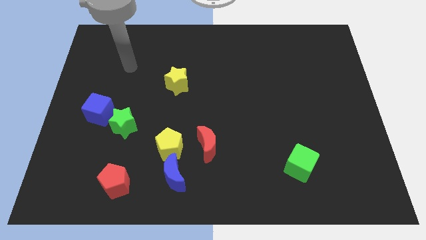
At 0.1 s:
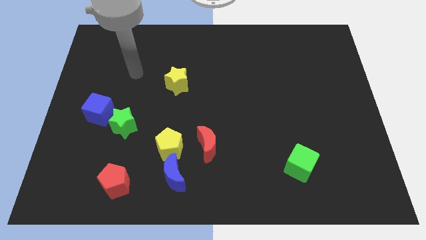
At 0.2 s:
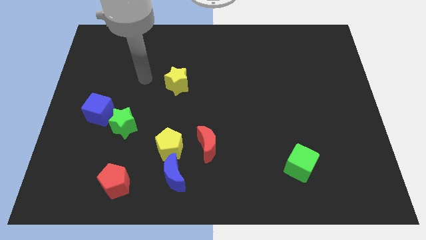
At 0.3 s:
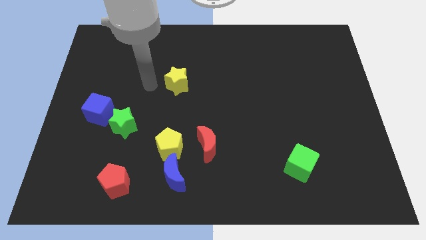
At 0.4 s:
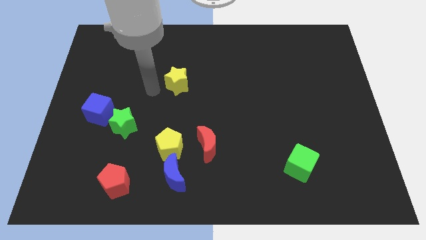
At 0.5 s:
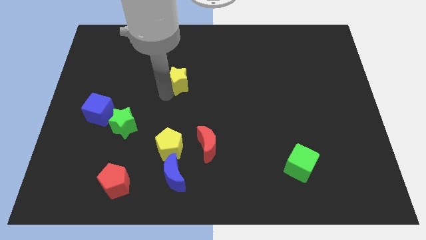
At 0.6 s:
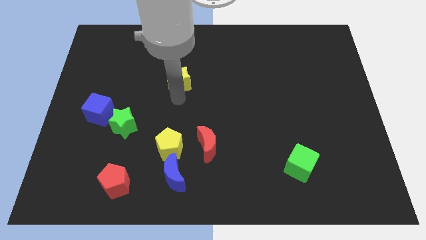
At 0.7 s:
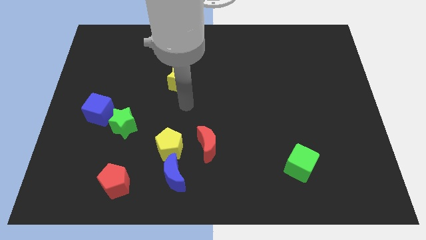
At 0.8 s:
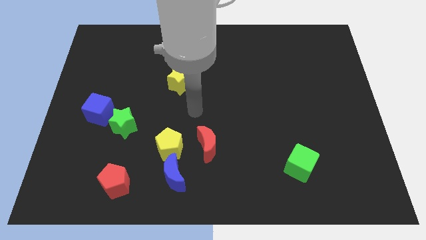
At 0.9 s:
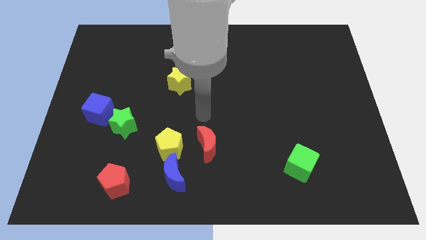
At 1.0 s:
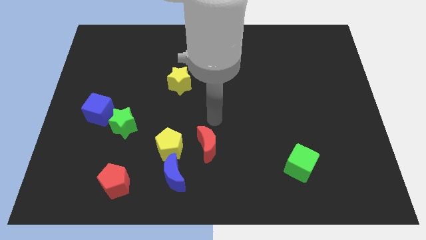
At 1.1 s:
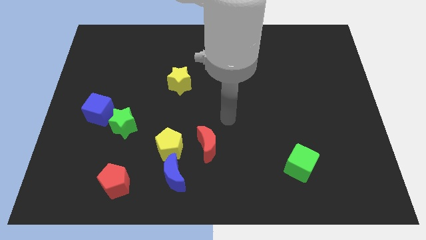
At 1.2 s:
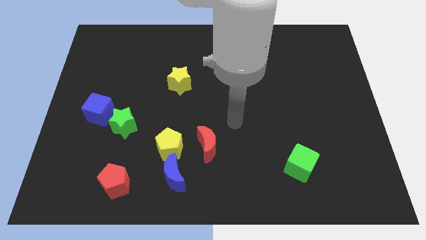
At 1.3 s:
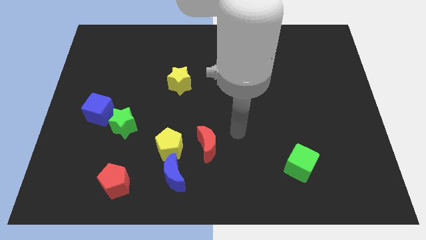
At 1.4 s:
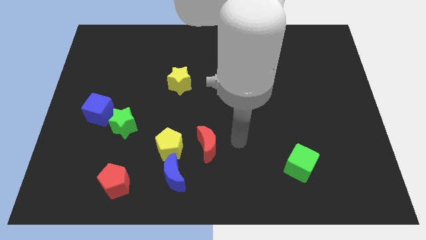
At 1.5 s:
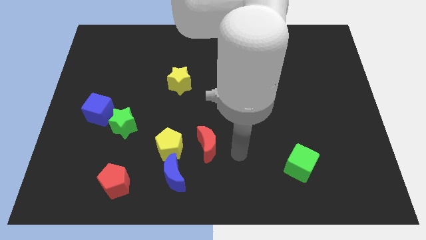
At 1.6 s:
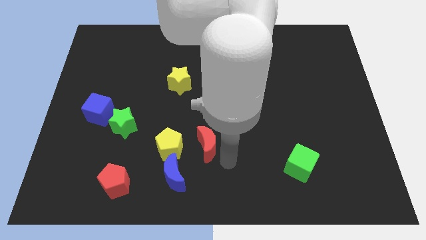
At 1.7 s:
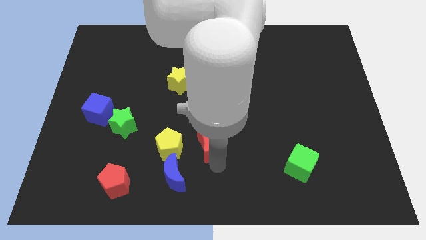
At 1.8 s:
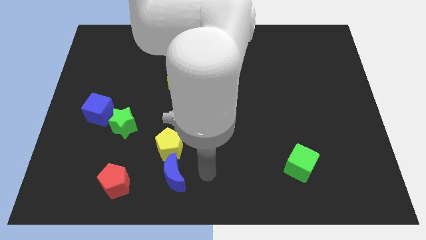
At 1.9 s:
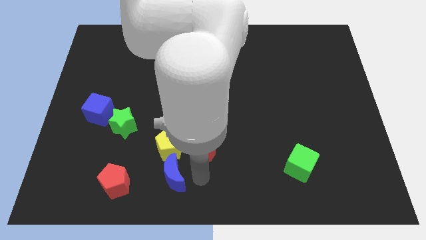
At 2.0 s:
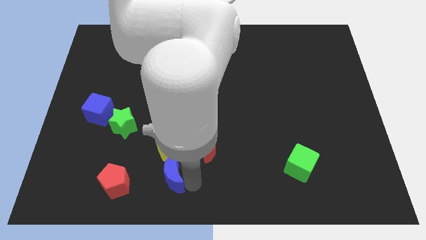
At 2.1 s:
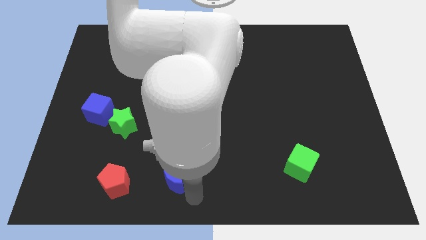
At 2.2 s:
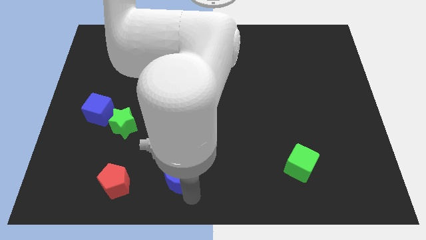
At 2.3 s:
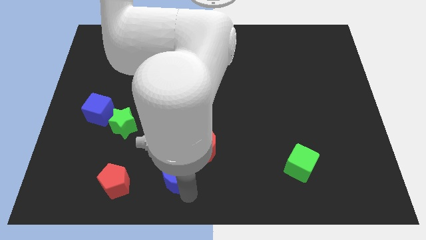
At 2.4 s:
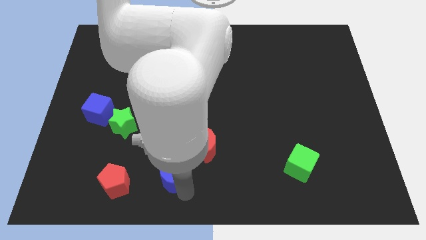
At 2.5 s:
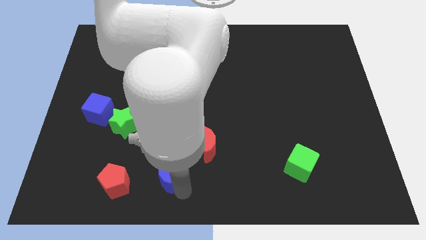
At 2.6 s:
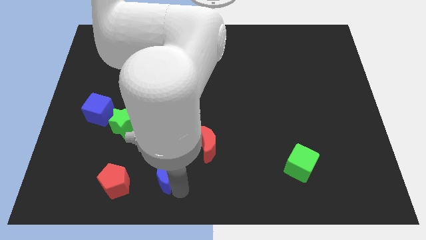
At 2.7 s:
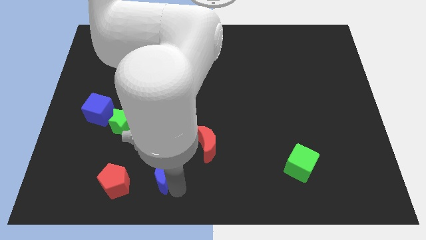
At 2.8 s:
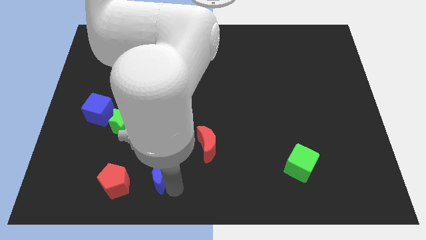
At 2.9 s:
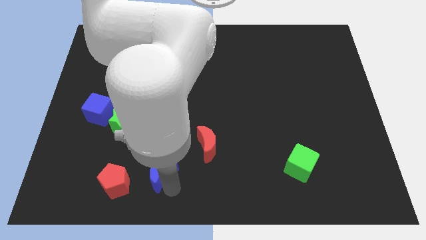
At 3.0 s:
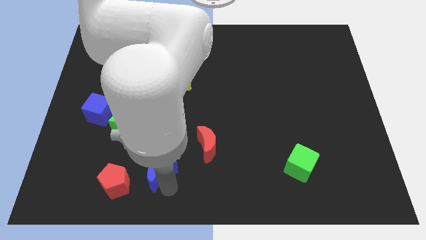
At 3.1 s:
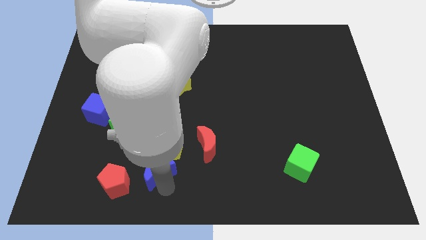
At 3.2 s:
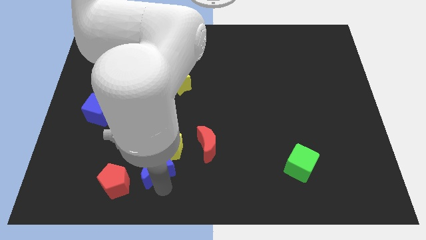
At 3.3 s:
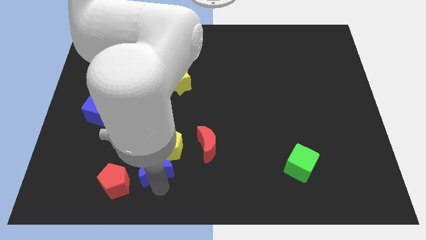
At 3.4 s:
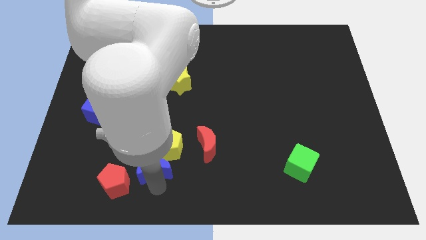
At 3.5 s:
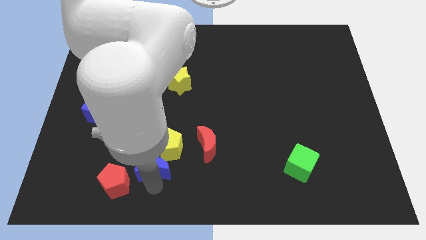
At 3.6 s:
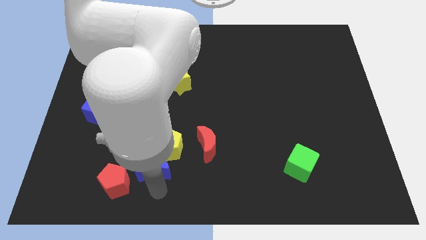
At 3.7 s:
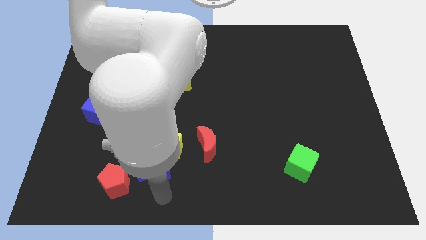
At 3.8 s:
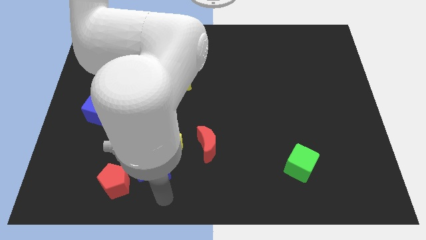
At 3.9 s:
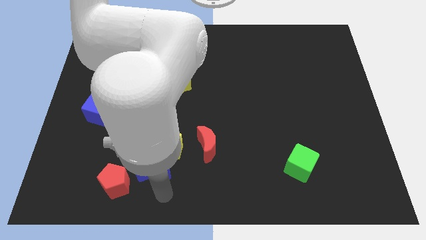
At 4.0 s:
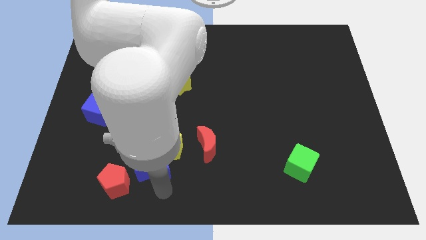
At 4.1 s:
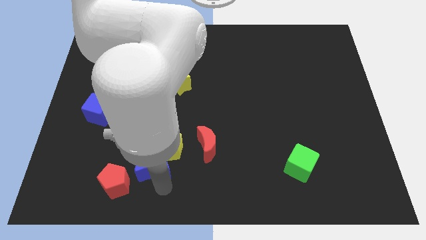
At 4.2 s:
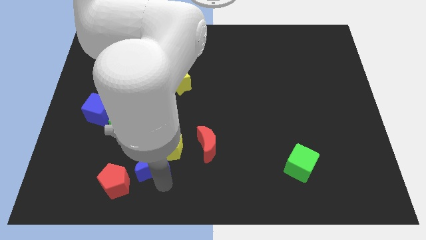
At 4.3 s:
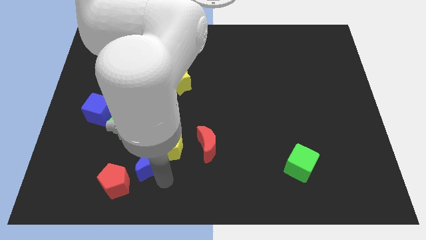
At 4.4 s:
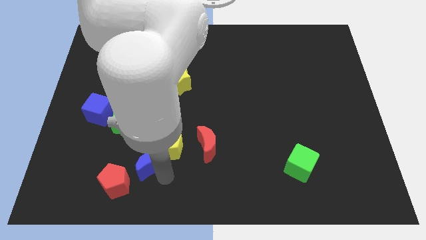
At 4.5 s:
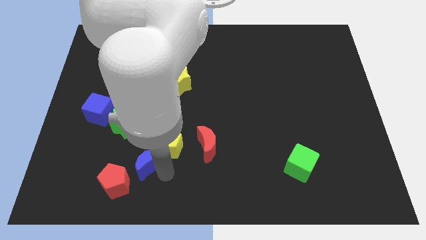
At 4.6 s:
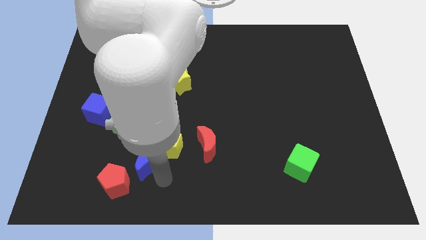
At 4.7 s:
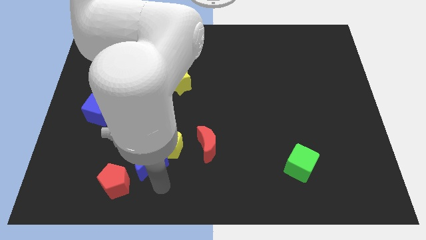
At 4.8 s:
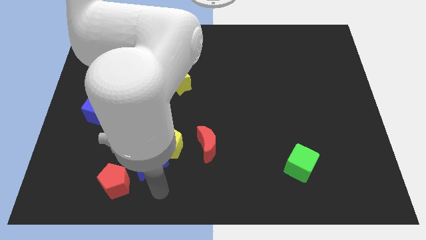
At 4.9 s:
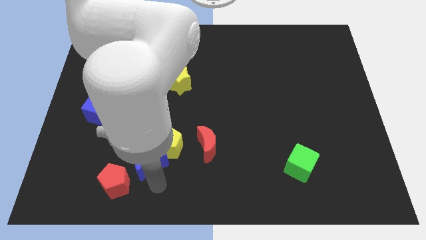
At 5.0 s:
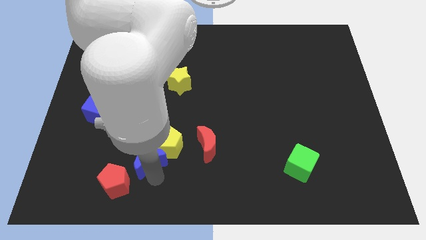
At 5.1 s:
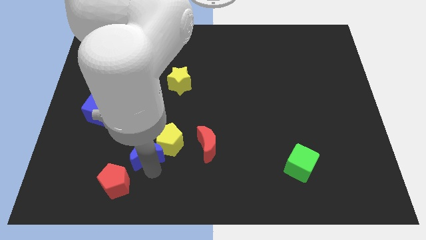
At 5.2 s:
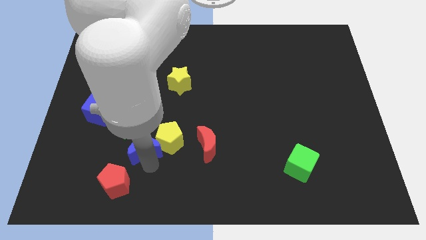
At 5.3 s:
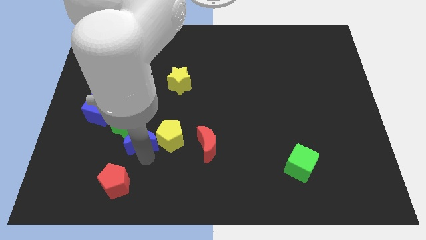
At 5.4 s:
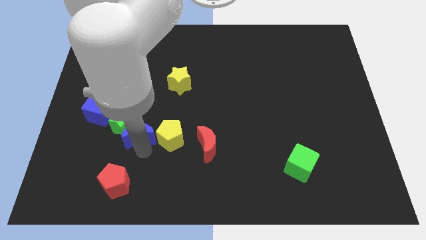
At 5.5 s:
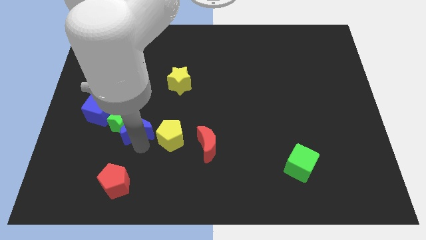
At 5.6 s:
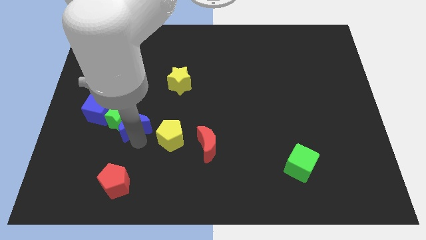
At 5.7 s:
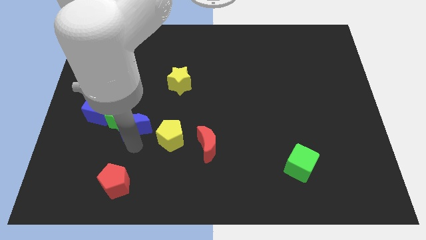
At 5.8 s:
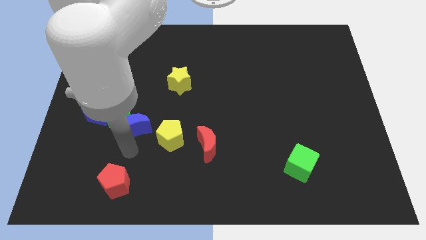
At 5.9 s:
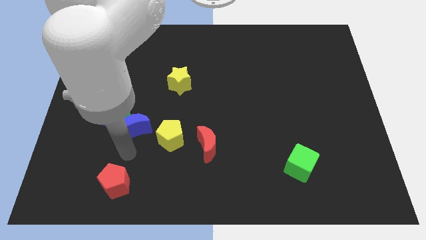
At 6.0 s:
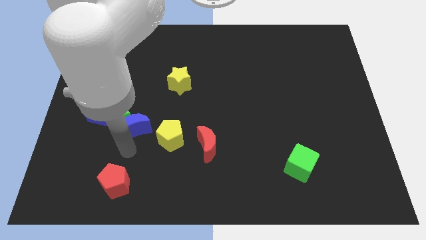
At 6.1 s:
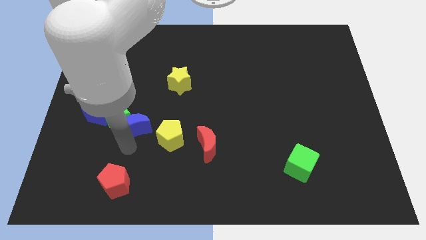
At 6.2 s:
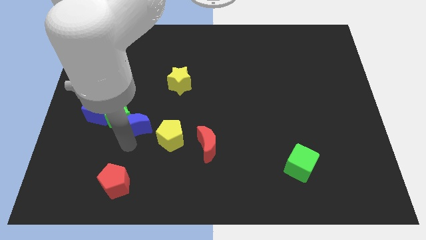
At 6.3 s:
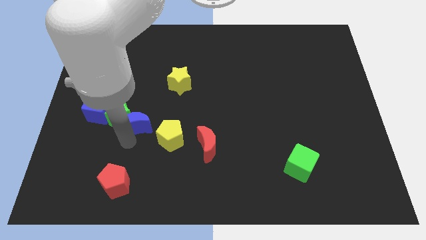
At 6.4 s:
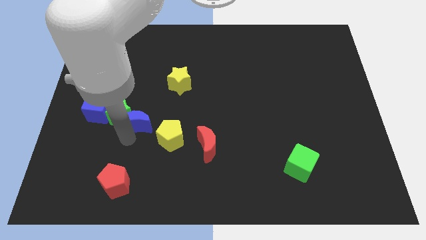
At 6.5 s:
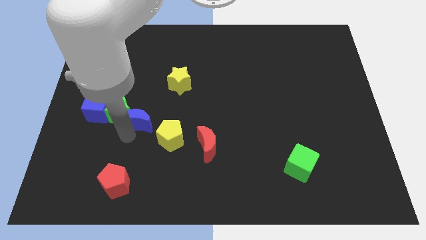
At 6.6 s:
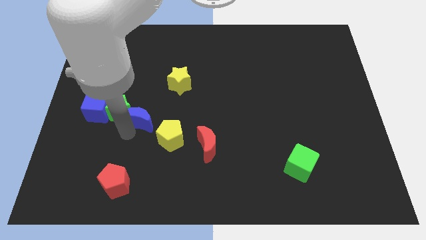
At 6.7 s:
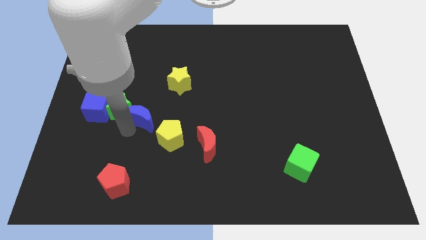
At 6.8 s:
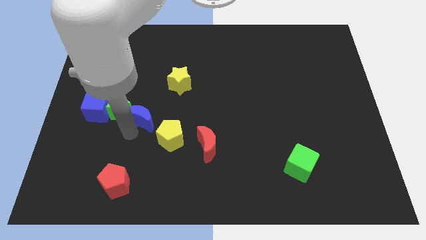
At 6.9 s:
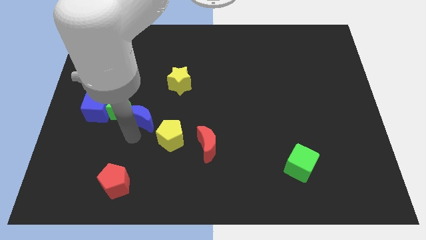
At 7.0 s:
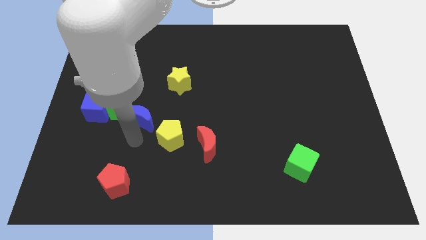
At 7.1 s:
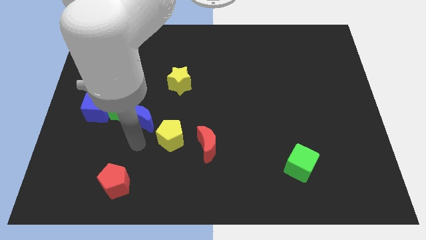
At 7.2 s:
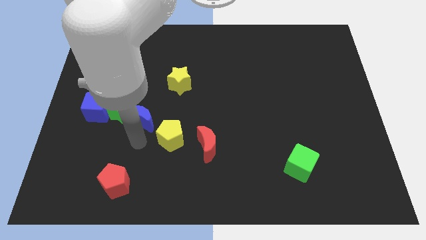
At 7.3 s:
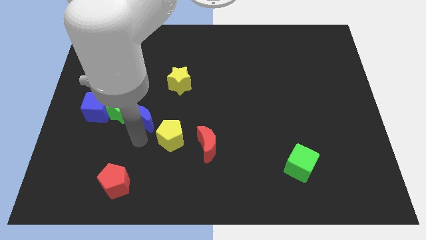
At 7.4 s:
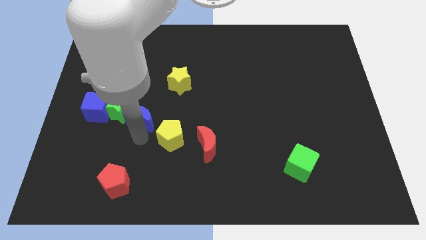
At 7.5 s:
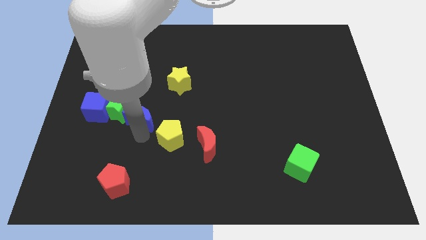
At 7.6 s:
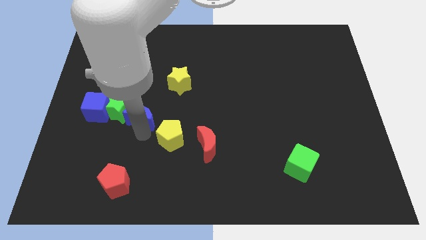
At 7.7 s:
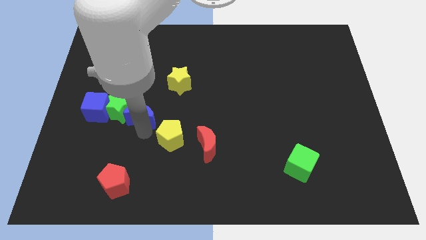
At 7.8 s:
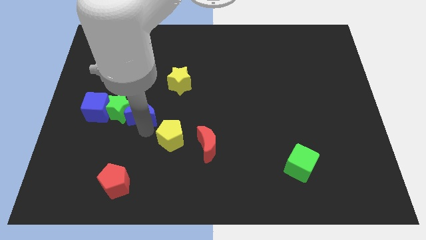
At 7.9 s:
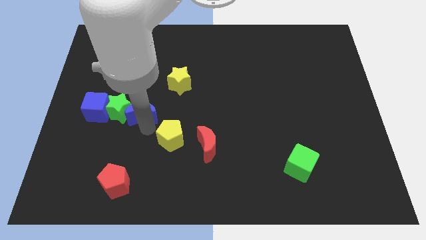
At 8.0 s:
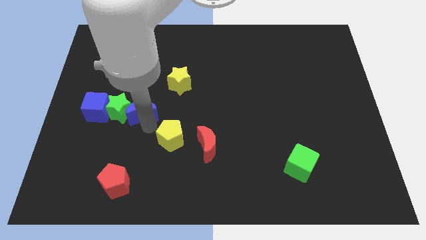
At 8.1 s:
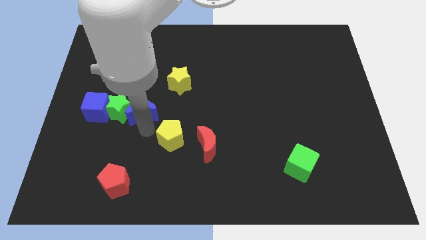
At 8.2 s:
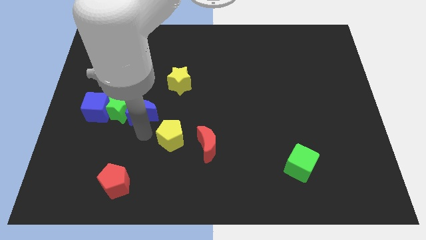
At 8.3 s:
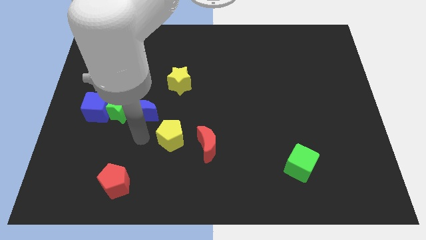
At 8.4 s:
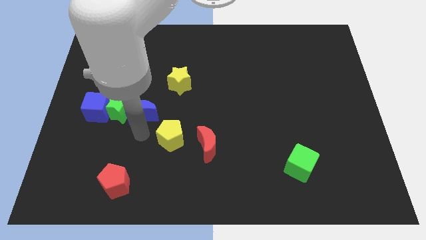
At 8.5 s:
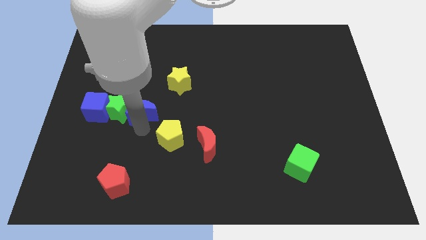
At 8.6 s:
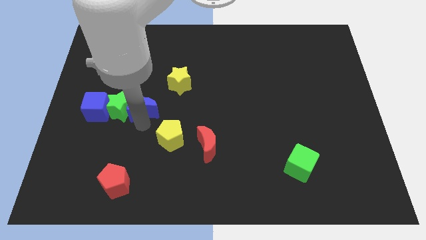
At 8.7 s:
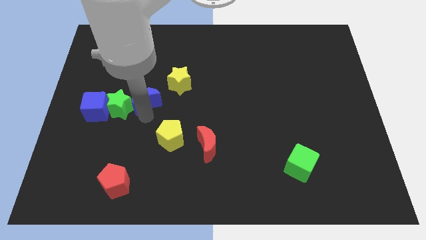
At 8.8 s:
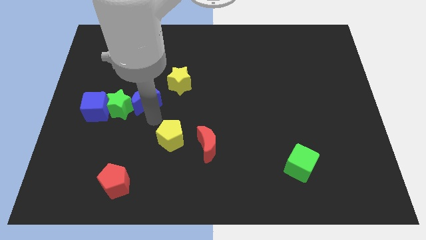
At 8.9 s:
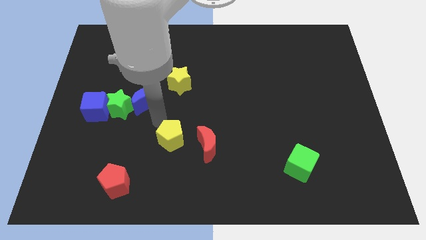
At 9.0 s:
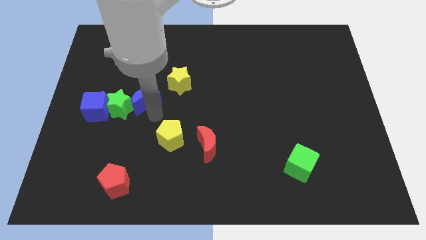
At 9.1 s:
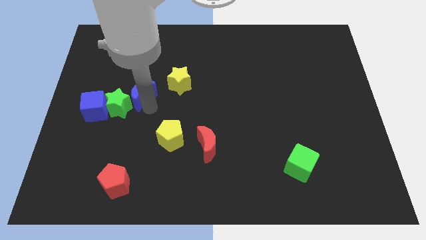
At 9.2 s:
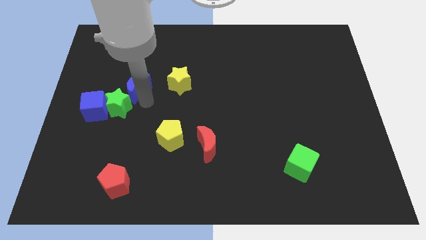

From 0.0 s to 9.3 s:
slide the blue moon to the top of the green star
